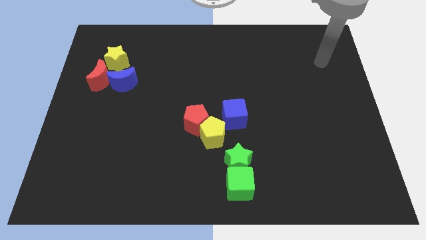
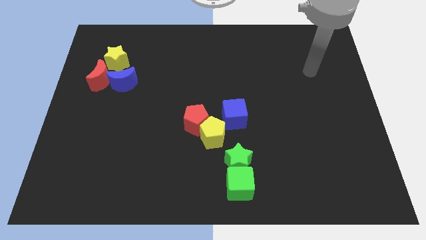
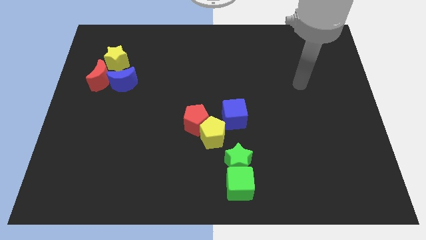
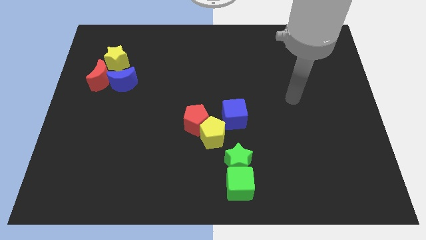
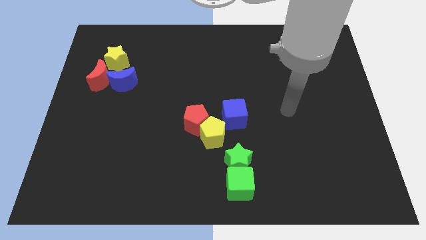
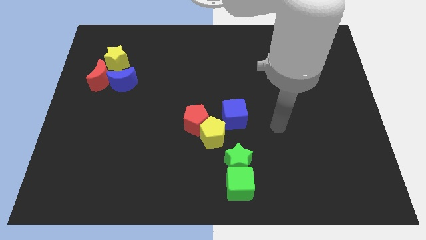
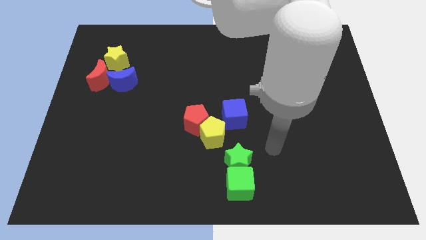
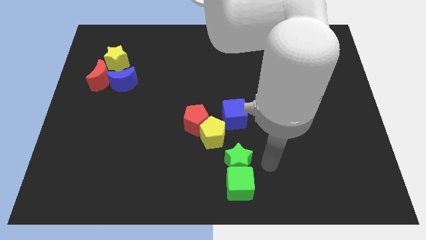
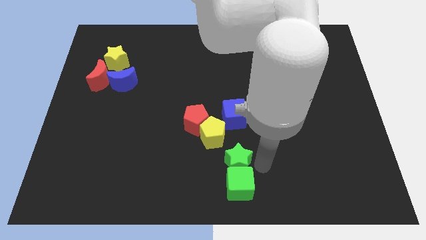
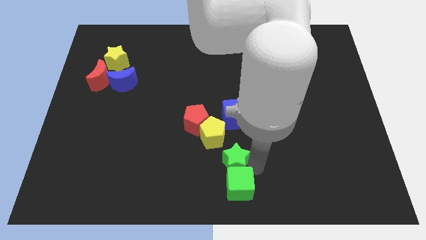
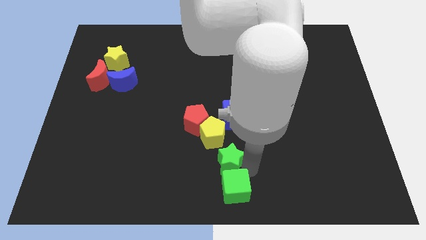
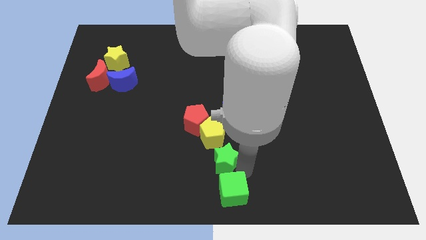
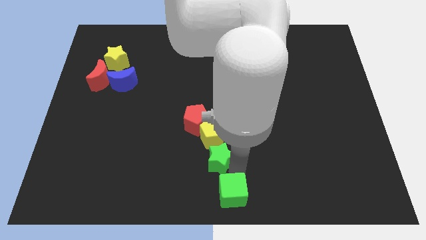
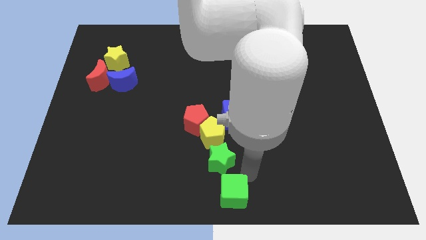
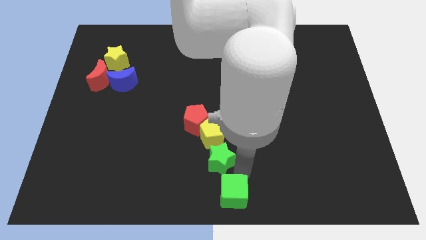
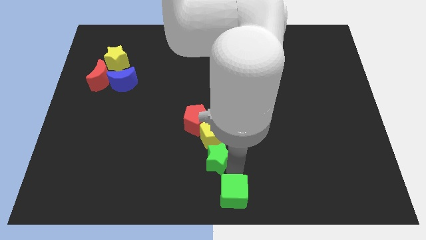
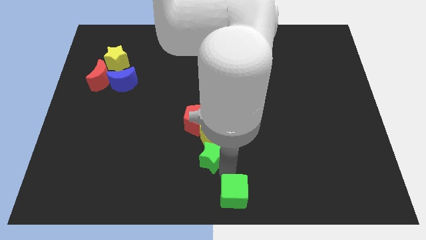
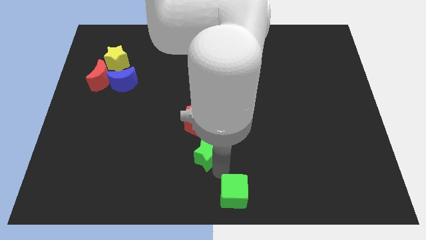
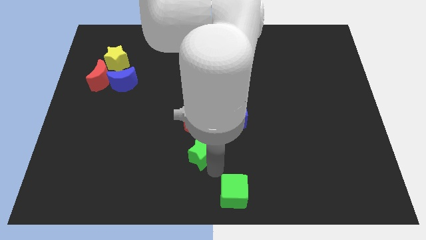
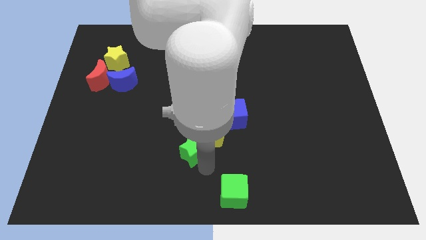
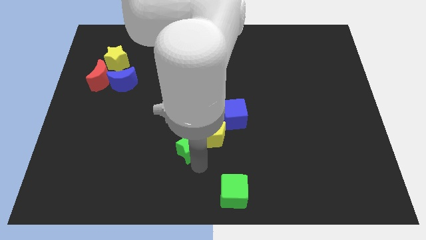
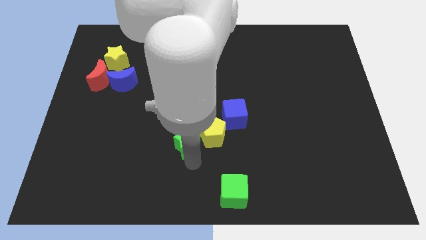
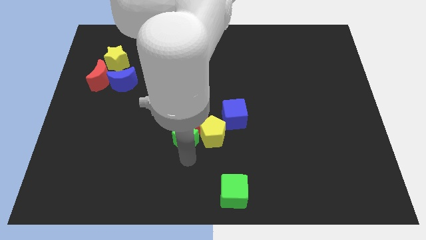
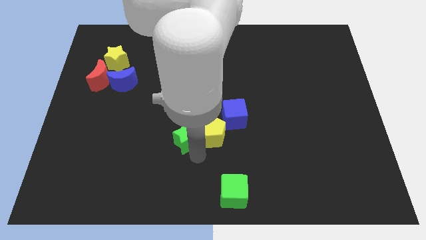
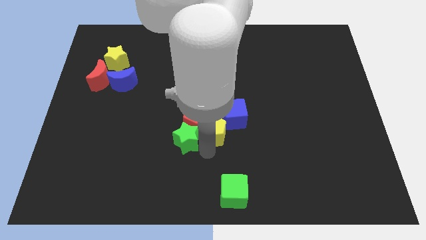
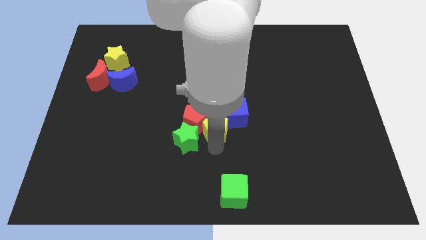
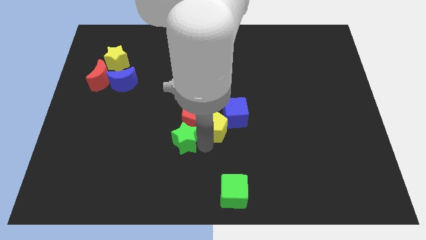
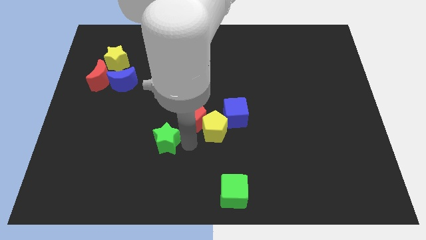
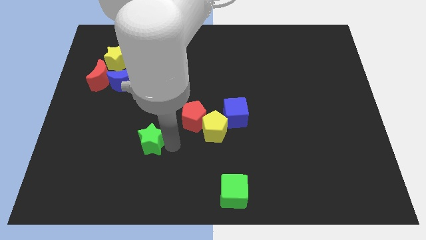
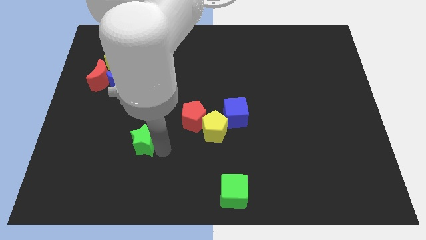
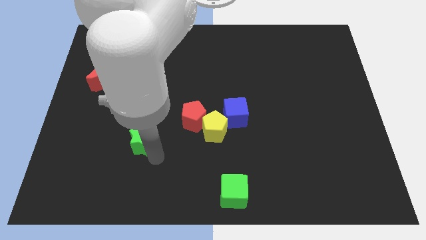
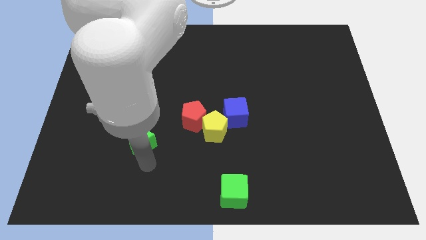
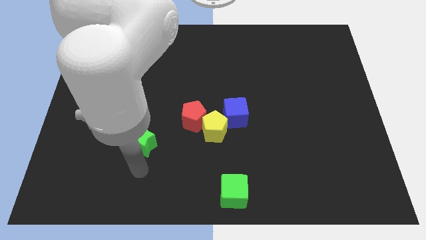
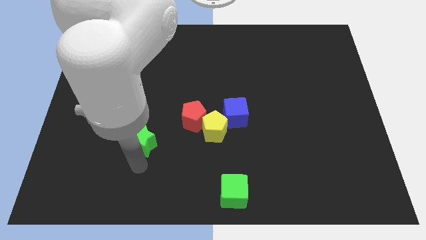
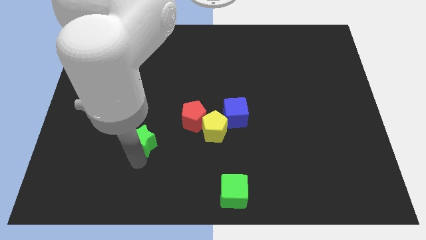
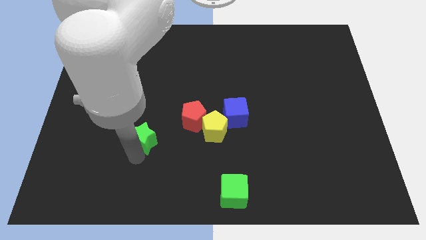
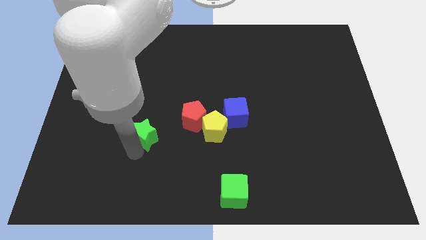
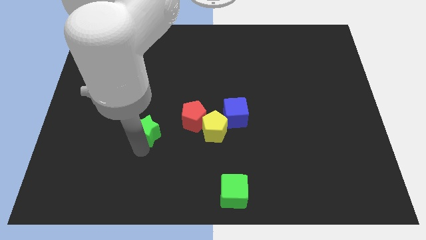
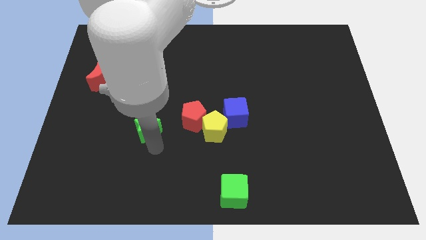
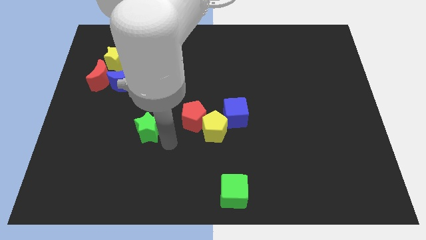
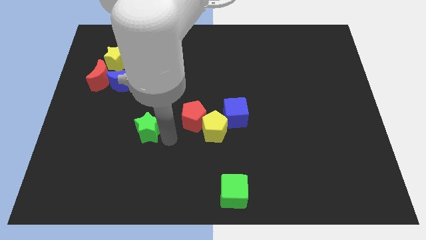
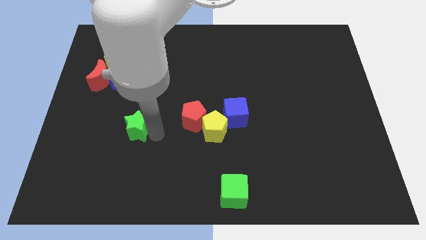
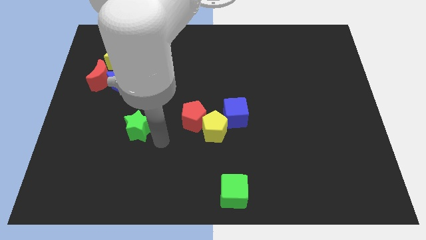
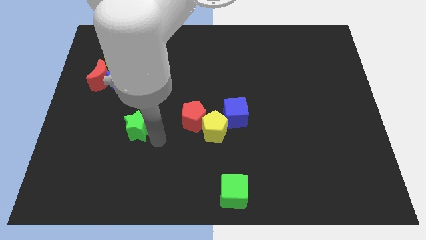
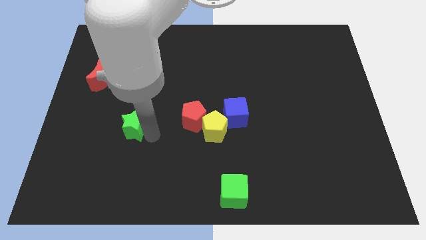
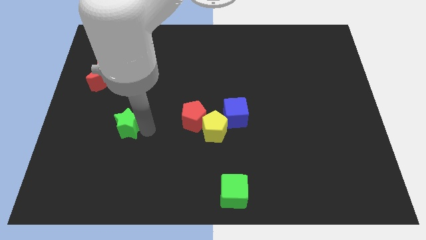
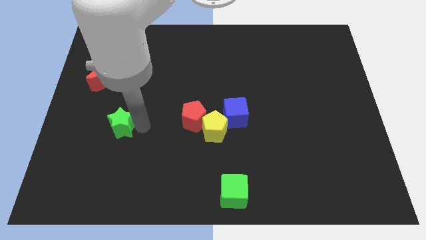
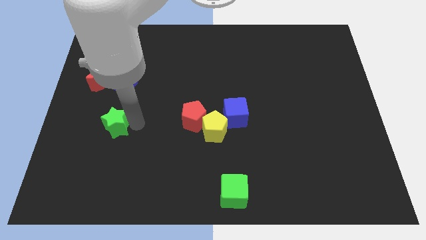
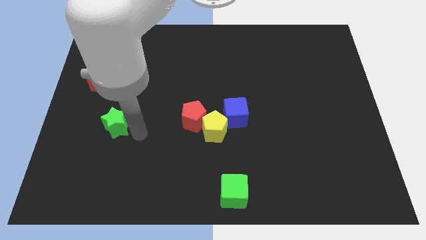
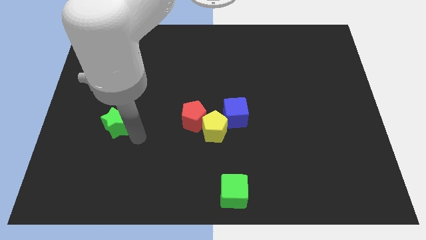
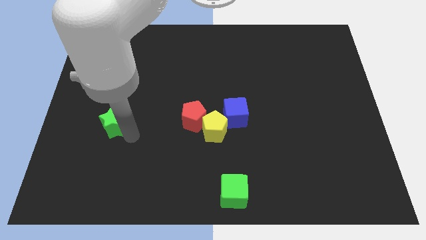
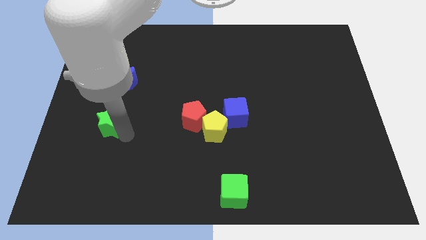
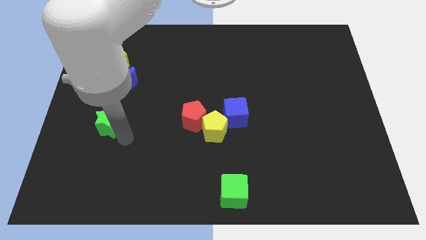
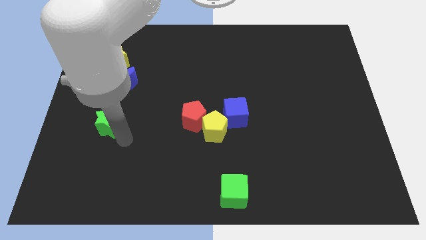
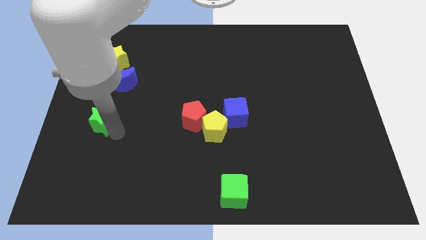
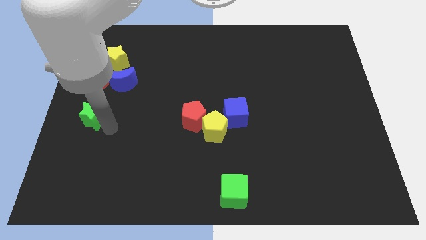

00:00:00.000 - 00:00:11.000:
put the green star to the left side of the board
